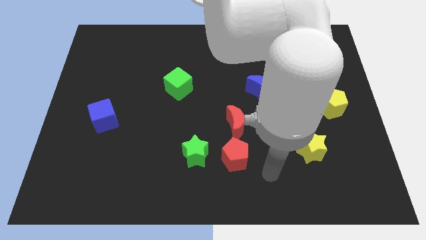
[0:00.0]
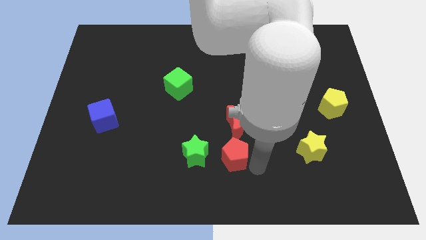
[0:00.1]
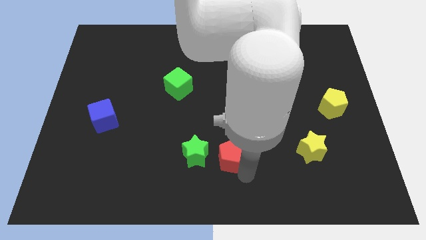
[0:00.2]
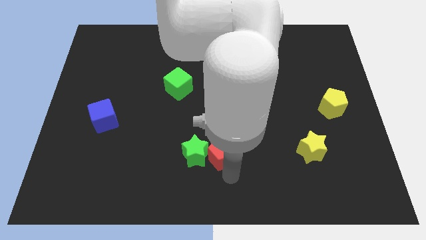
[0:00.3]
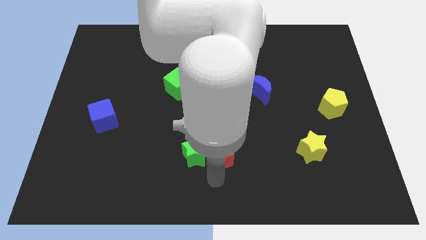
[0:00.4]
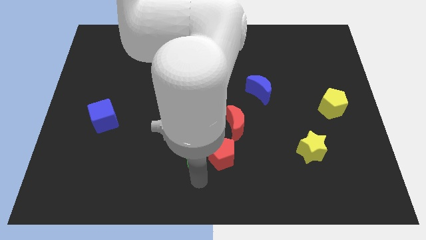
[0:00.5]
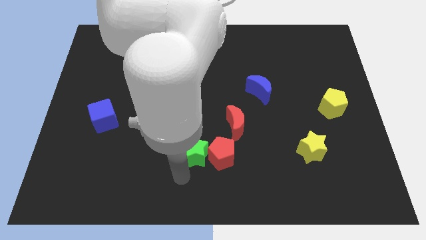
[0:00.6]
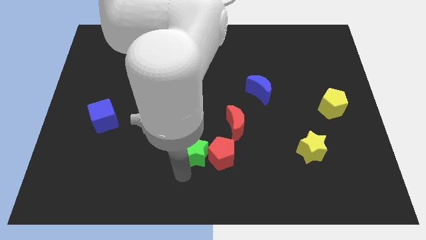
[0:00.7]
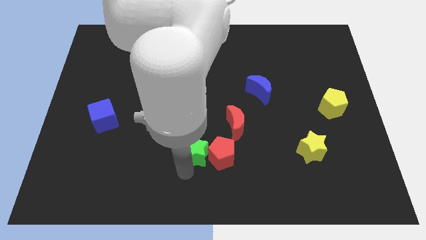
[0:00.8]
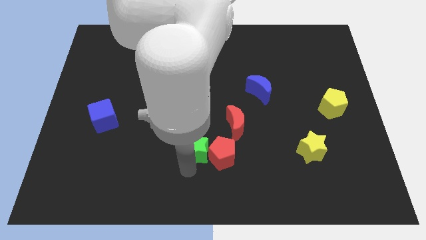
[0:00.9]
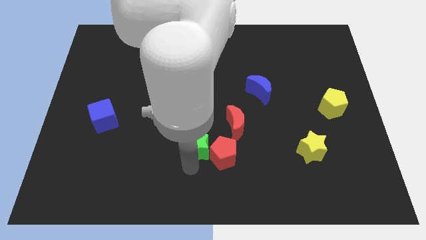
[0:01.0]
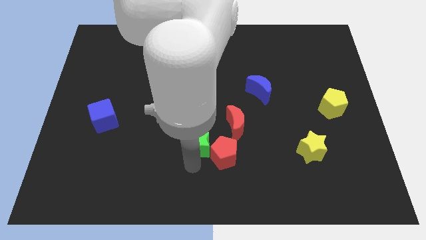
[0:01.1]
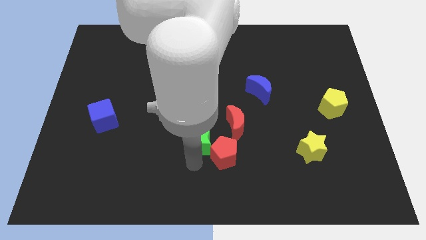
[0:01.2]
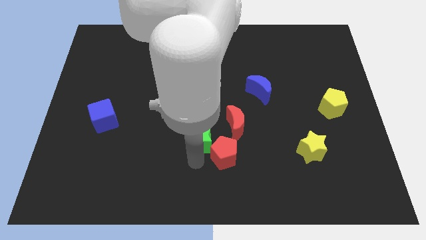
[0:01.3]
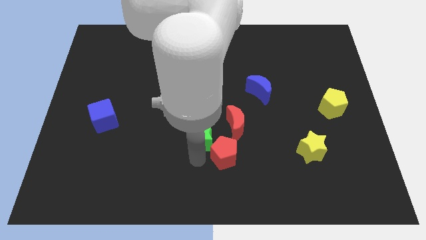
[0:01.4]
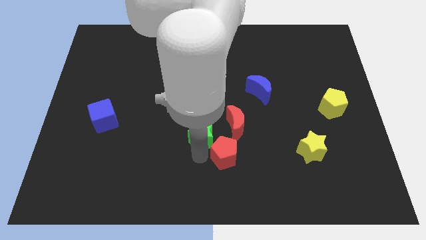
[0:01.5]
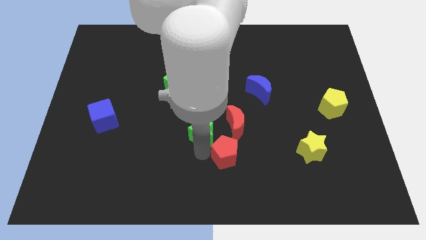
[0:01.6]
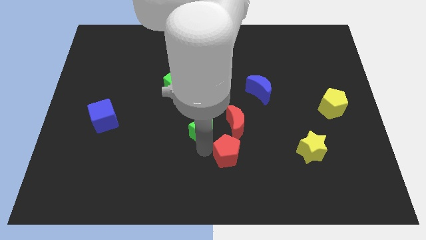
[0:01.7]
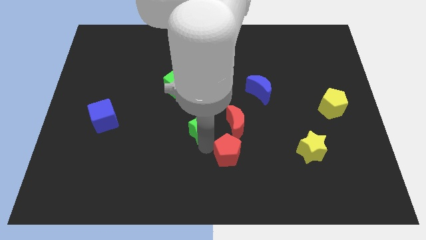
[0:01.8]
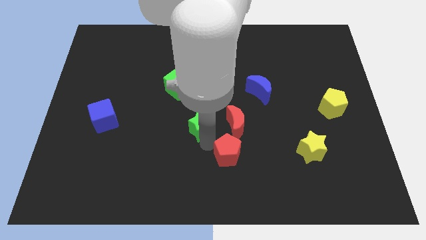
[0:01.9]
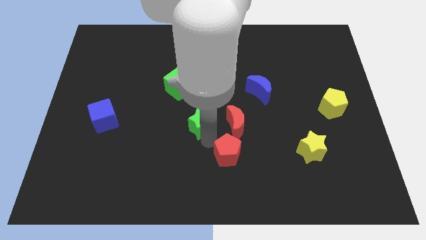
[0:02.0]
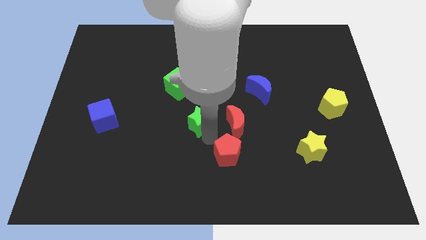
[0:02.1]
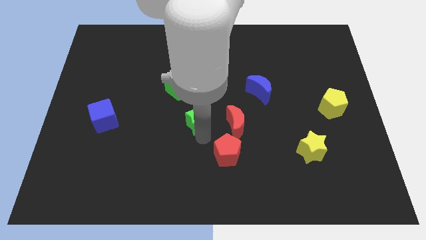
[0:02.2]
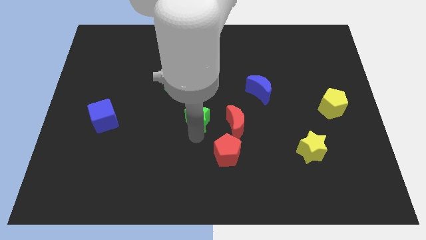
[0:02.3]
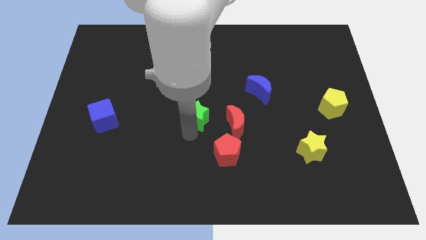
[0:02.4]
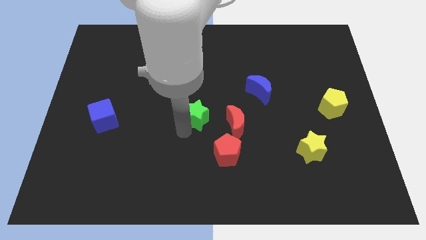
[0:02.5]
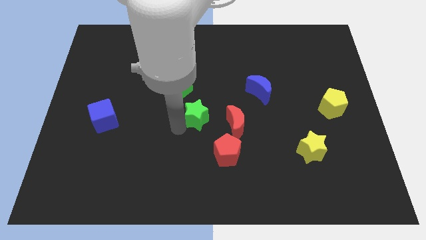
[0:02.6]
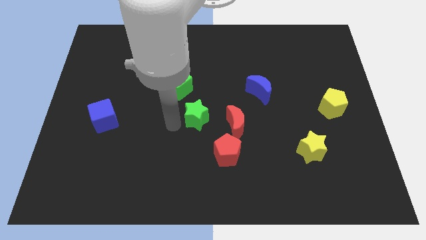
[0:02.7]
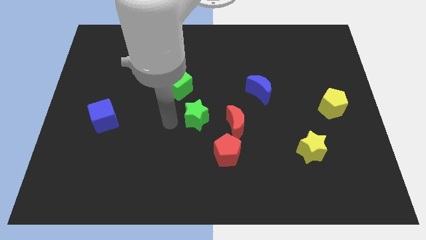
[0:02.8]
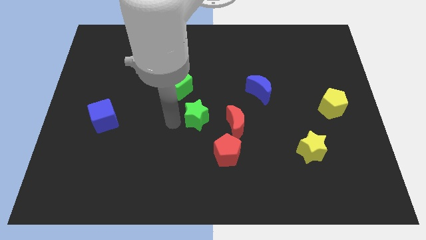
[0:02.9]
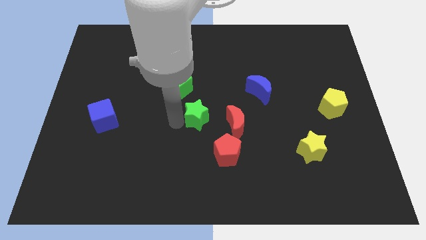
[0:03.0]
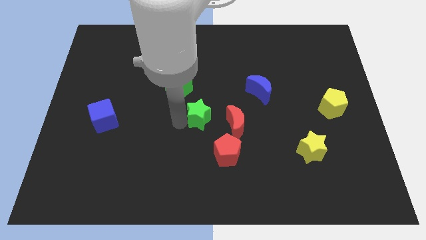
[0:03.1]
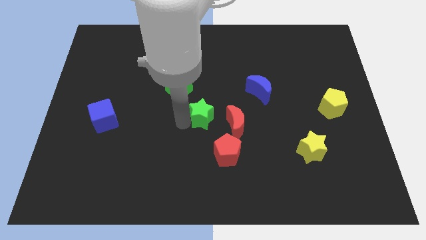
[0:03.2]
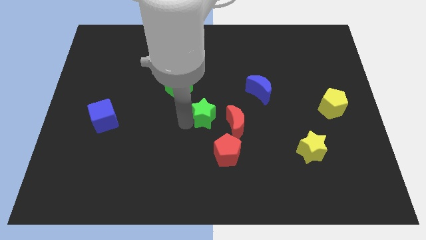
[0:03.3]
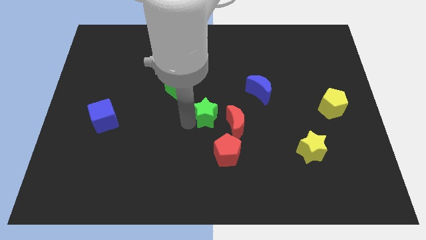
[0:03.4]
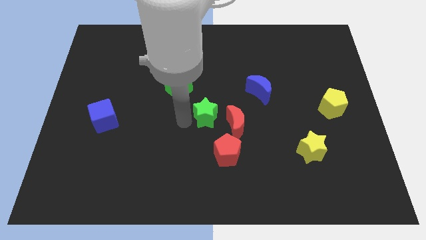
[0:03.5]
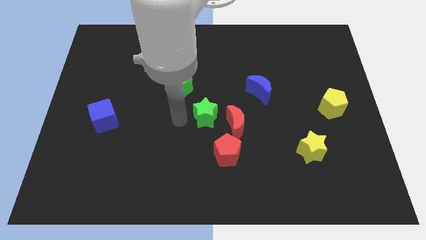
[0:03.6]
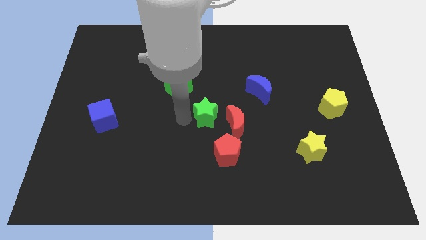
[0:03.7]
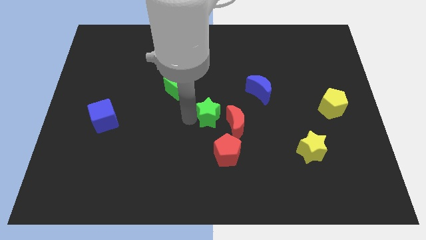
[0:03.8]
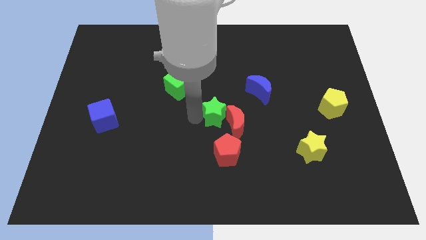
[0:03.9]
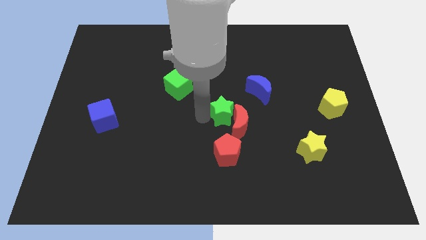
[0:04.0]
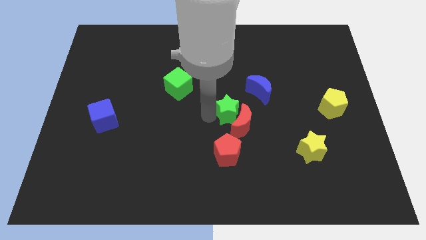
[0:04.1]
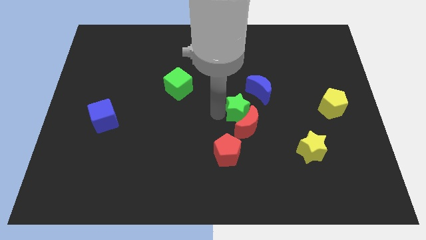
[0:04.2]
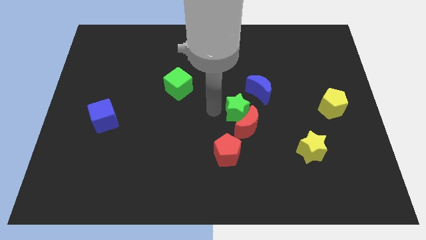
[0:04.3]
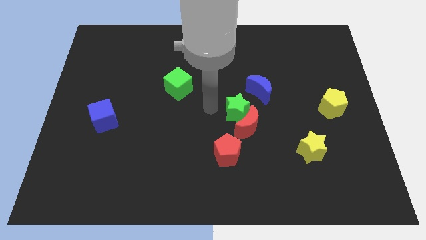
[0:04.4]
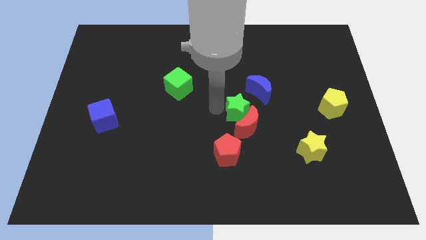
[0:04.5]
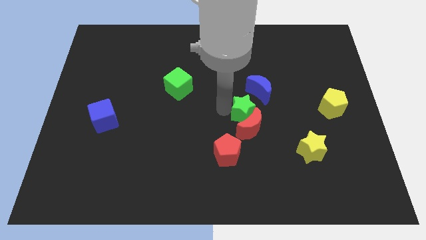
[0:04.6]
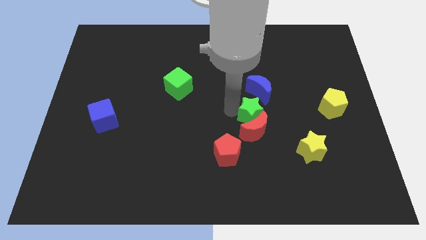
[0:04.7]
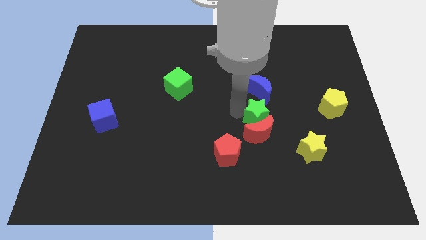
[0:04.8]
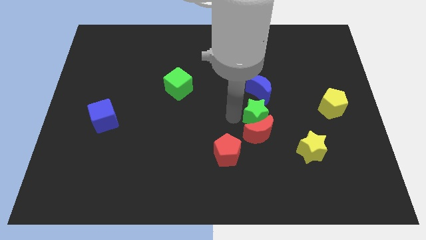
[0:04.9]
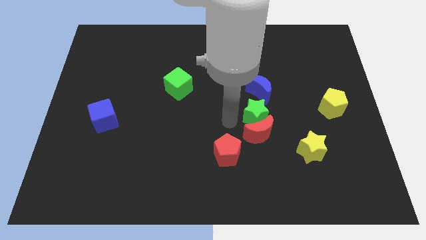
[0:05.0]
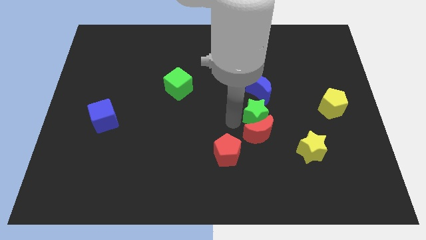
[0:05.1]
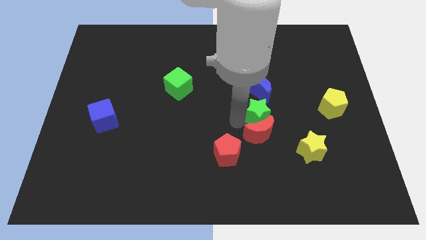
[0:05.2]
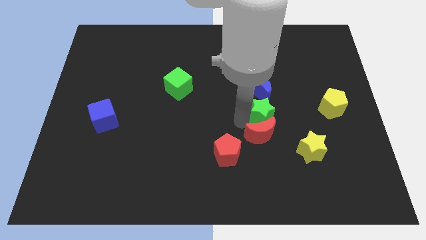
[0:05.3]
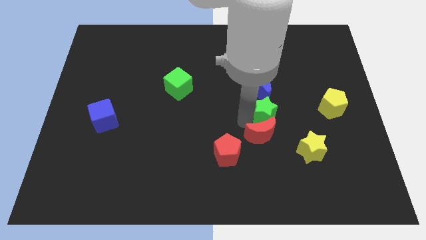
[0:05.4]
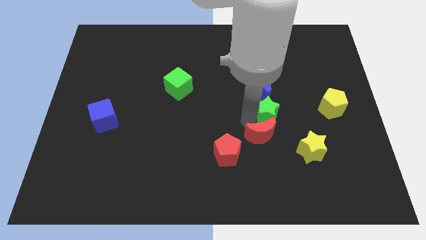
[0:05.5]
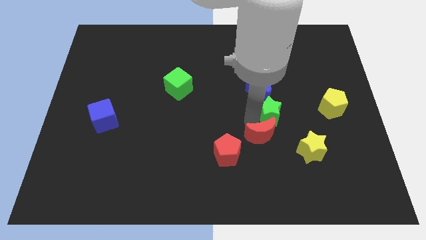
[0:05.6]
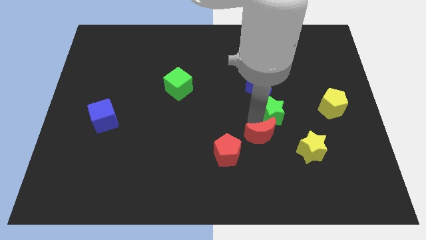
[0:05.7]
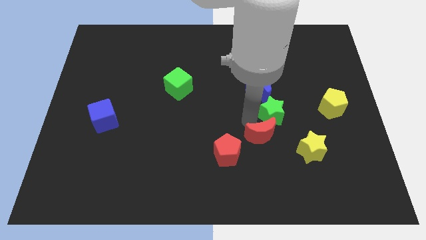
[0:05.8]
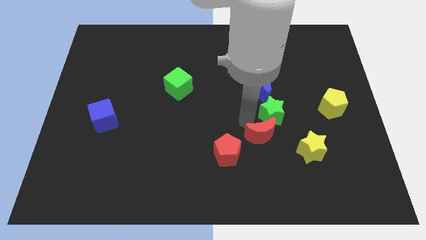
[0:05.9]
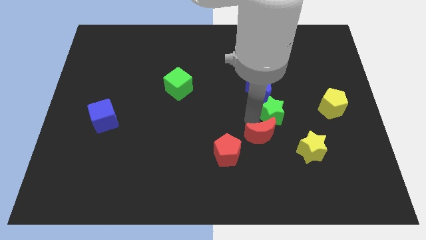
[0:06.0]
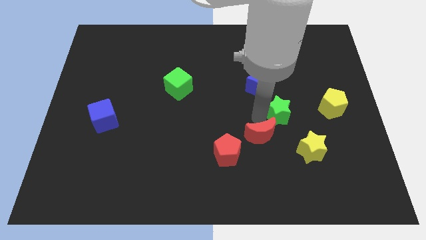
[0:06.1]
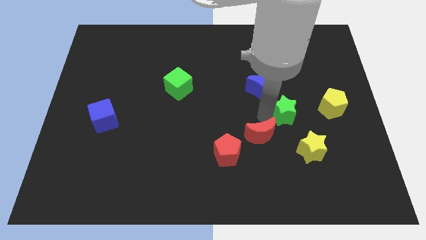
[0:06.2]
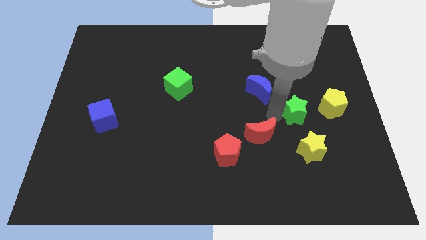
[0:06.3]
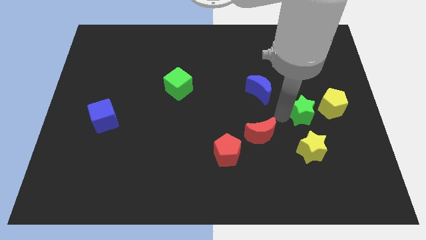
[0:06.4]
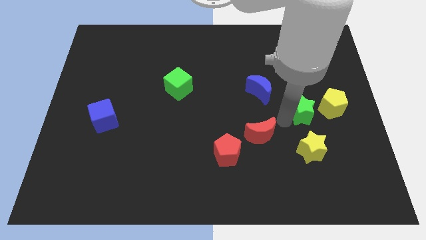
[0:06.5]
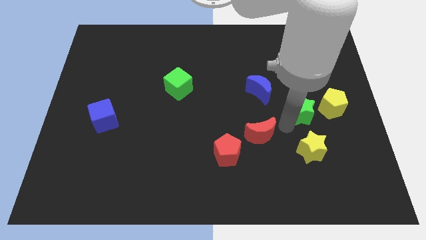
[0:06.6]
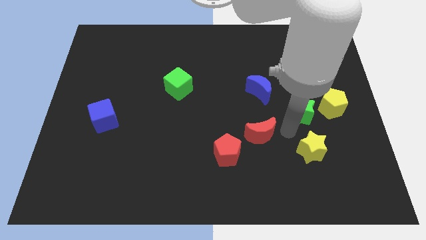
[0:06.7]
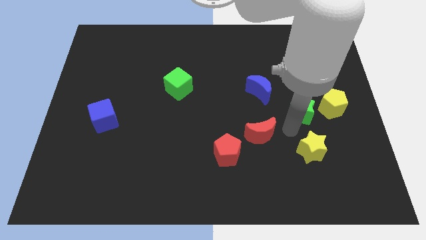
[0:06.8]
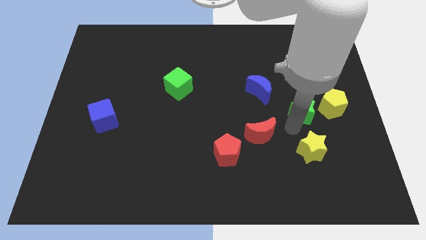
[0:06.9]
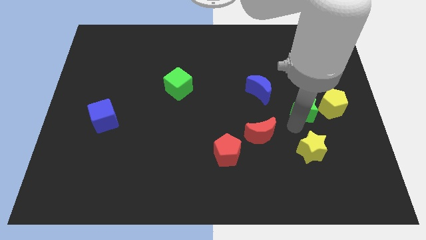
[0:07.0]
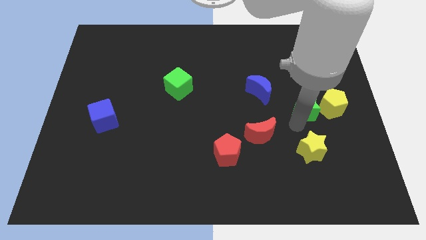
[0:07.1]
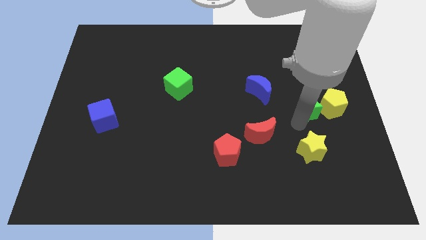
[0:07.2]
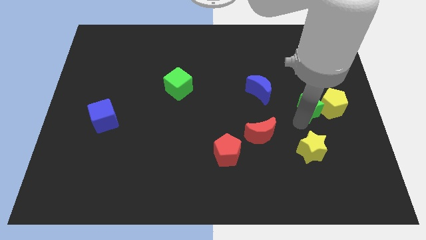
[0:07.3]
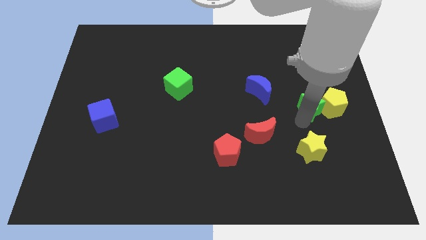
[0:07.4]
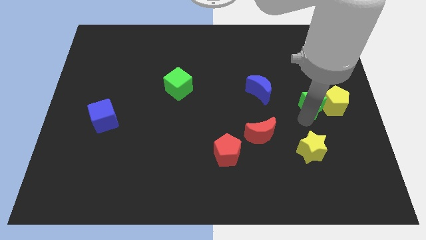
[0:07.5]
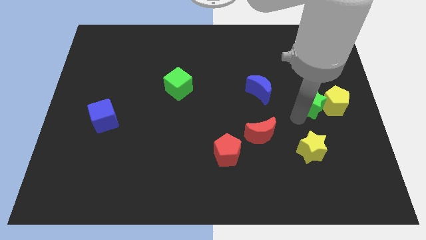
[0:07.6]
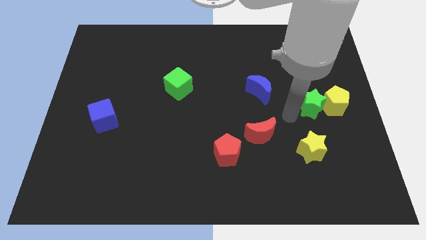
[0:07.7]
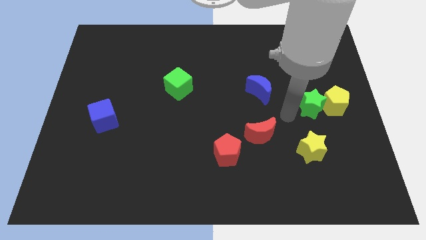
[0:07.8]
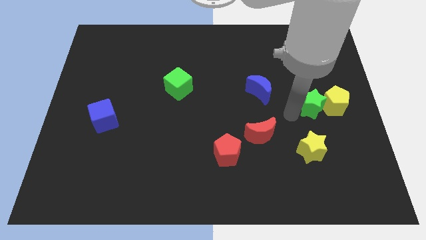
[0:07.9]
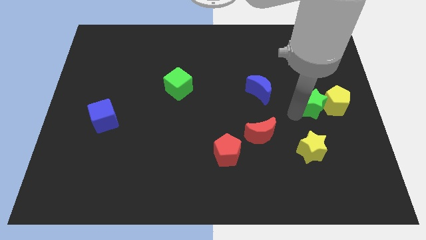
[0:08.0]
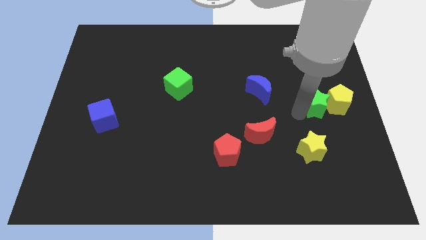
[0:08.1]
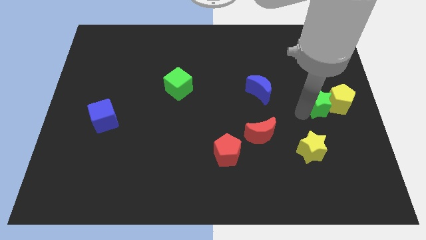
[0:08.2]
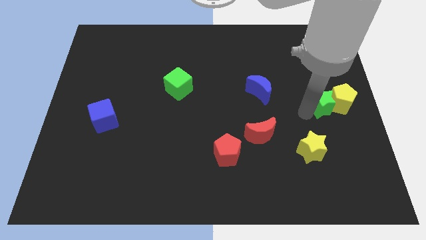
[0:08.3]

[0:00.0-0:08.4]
slide the green star to the center right
